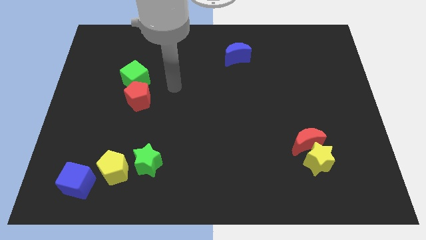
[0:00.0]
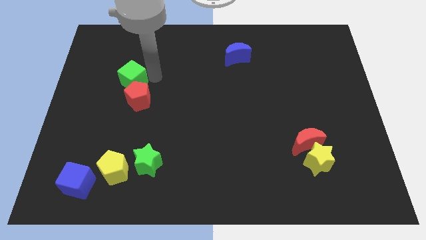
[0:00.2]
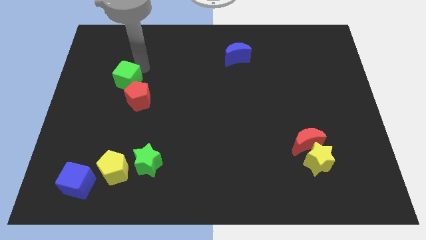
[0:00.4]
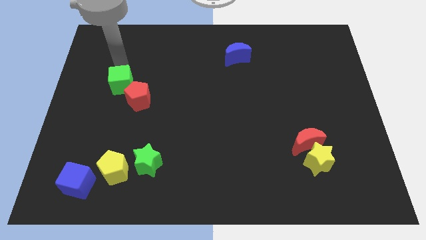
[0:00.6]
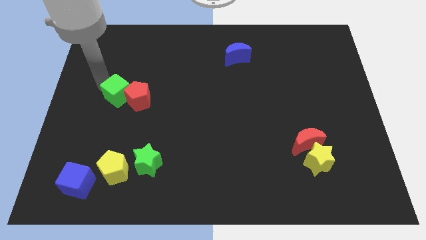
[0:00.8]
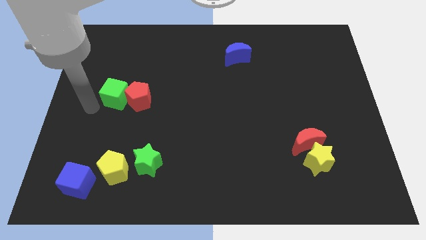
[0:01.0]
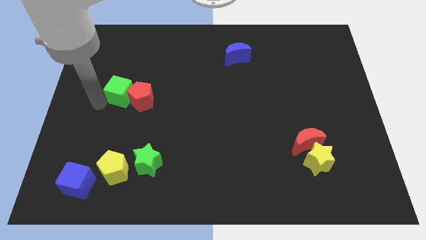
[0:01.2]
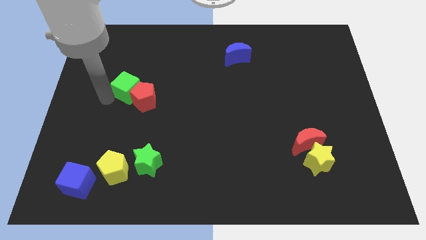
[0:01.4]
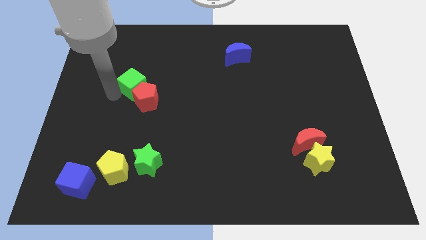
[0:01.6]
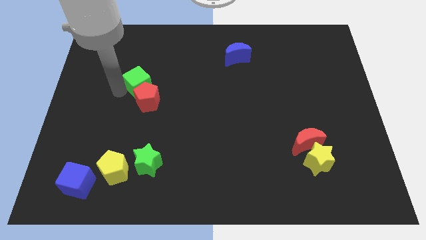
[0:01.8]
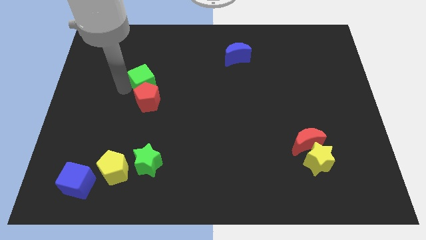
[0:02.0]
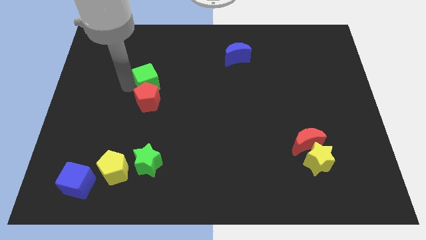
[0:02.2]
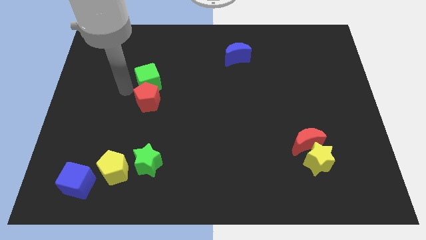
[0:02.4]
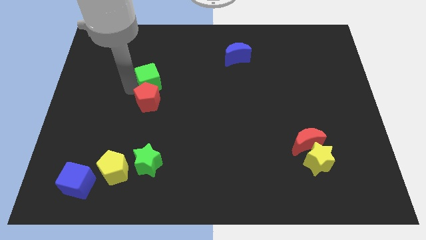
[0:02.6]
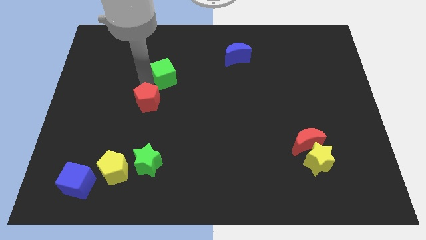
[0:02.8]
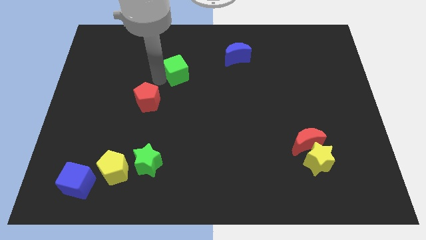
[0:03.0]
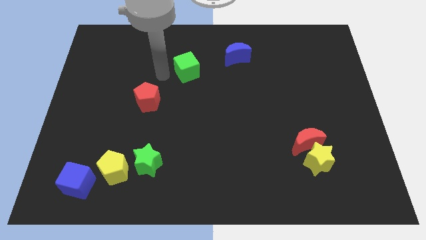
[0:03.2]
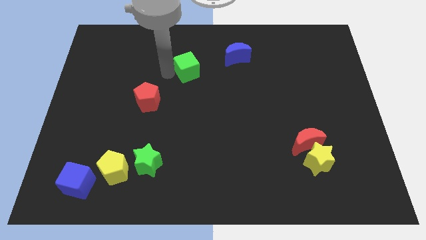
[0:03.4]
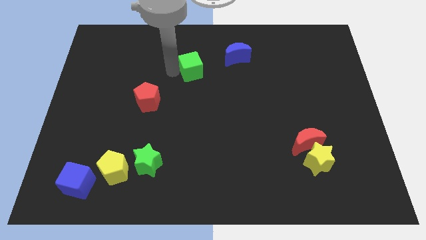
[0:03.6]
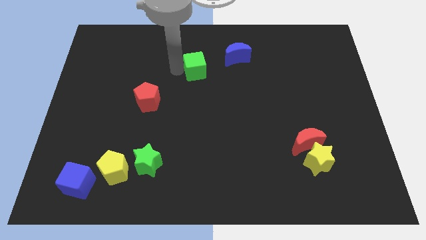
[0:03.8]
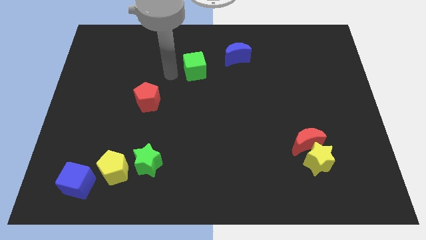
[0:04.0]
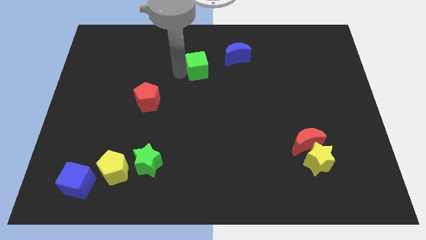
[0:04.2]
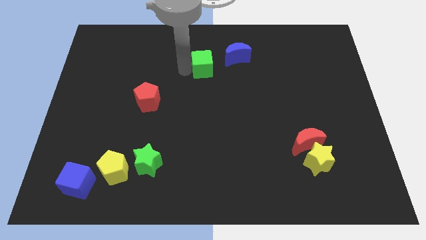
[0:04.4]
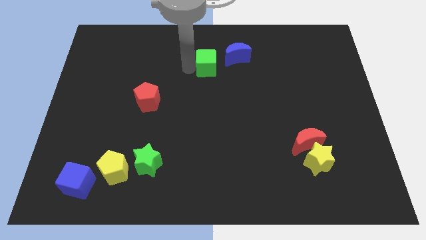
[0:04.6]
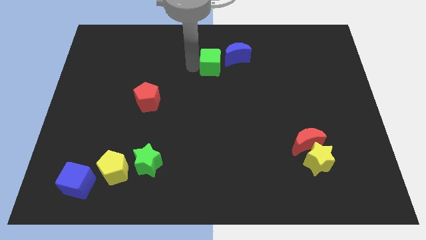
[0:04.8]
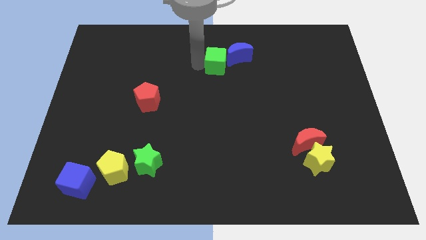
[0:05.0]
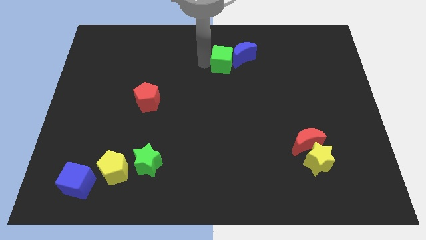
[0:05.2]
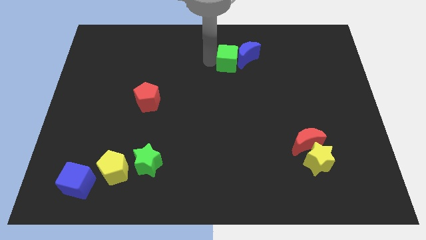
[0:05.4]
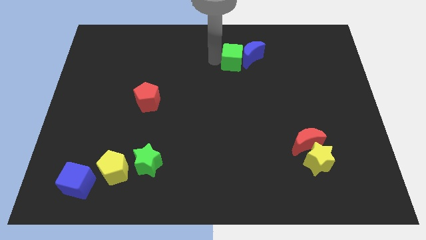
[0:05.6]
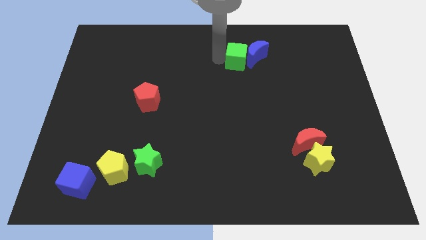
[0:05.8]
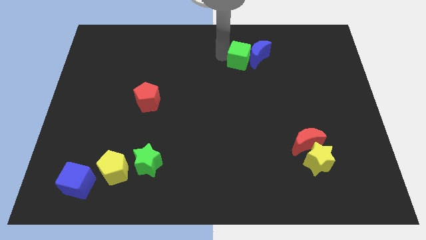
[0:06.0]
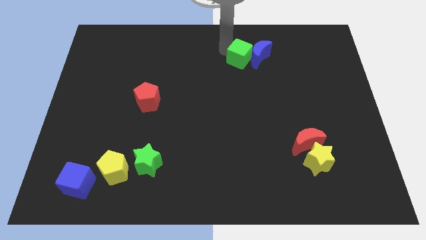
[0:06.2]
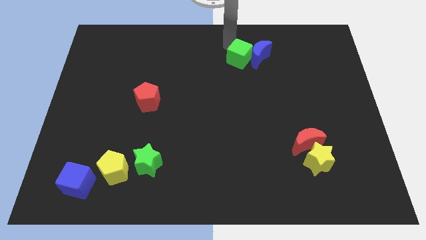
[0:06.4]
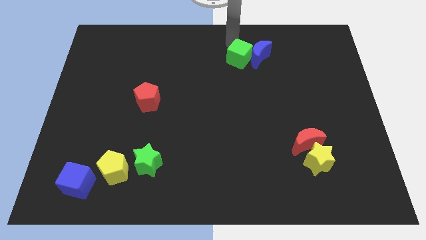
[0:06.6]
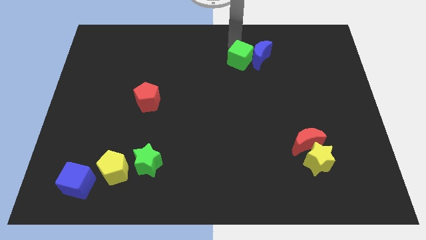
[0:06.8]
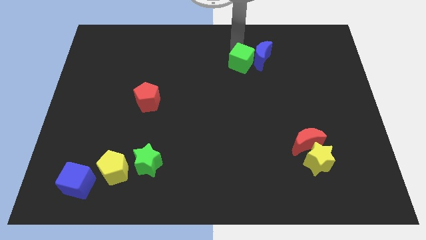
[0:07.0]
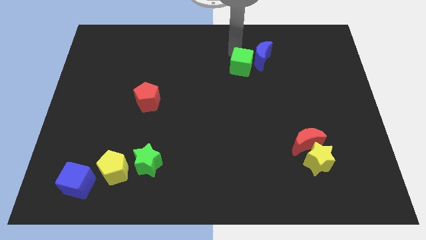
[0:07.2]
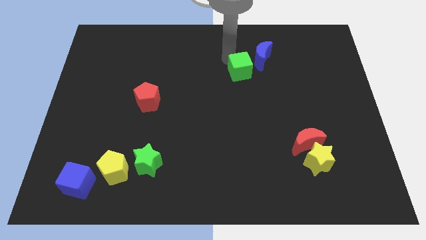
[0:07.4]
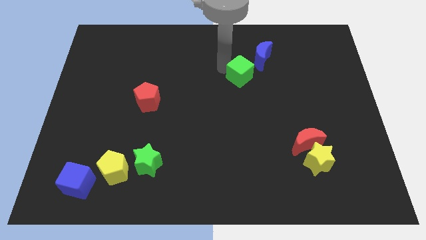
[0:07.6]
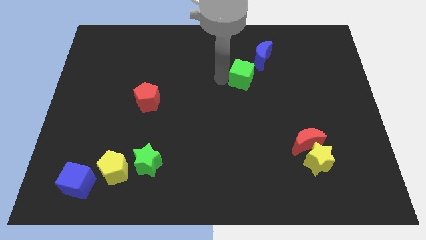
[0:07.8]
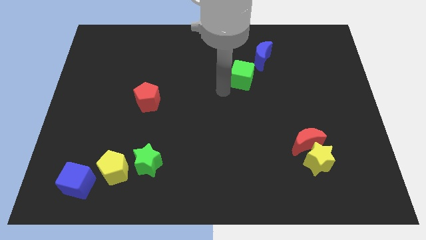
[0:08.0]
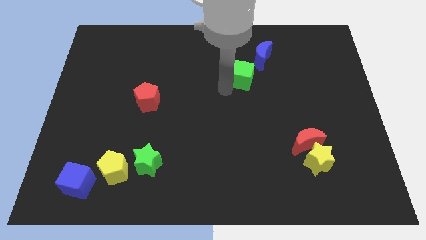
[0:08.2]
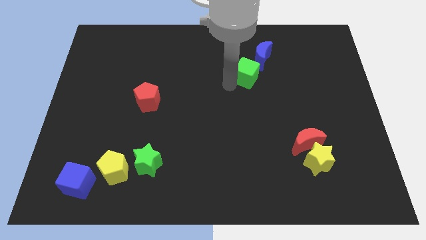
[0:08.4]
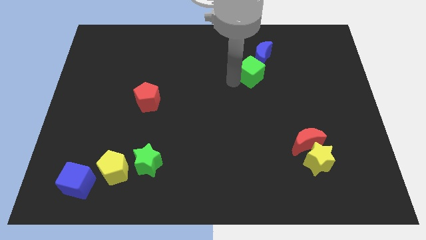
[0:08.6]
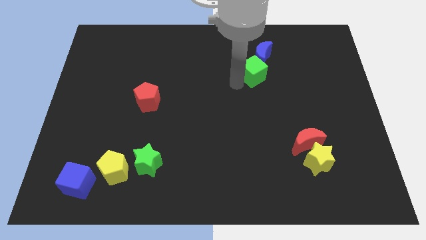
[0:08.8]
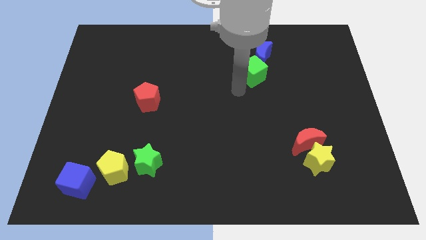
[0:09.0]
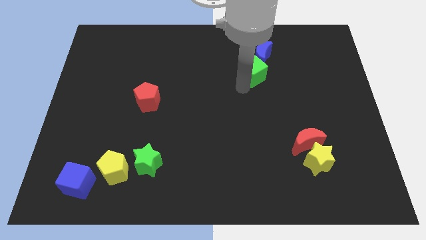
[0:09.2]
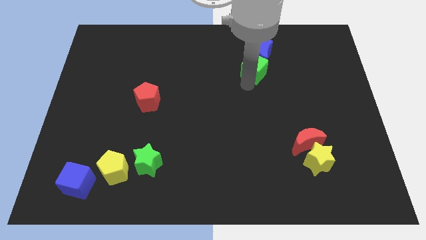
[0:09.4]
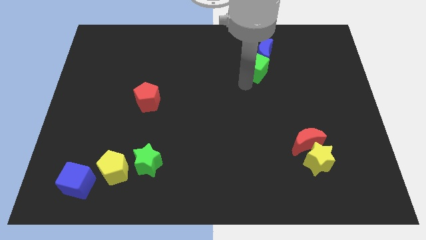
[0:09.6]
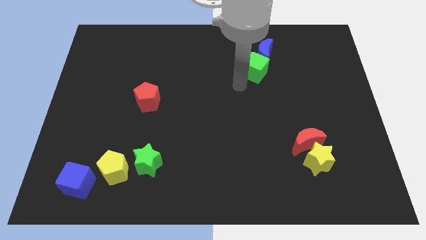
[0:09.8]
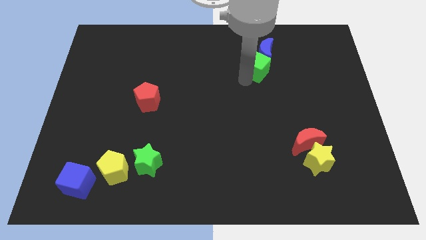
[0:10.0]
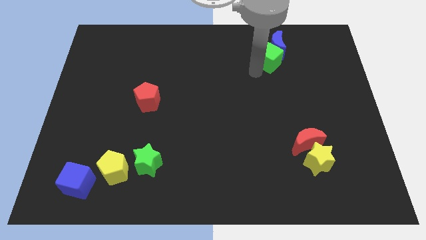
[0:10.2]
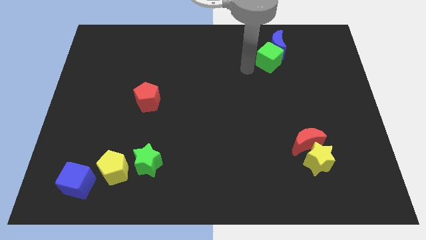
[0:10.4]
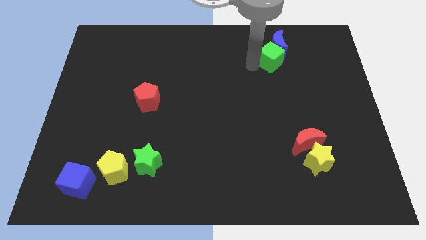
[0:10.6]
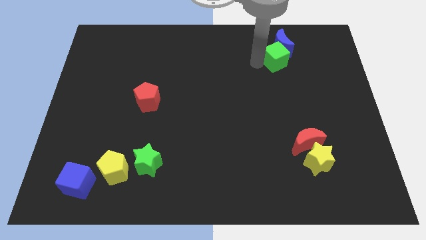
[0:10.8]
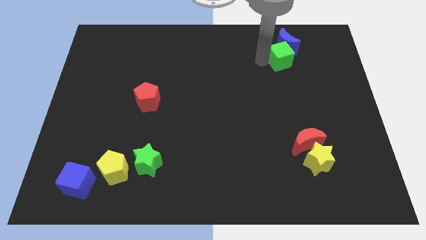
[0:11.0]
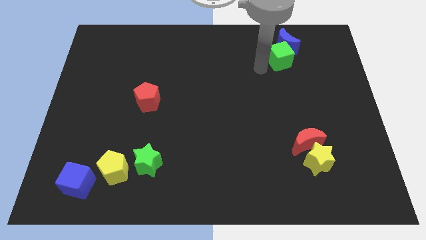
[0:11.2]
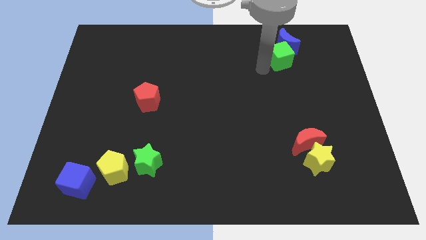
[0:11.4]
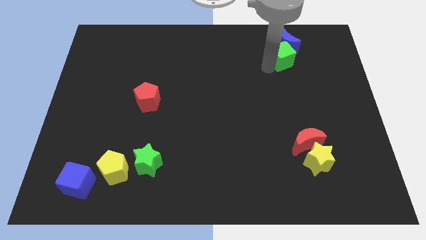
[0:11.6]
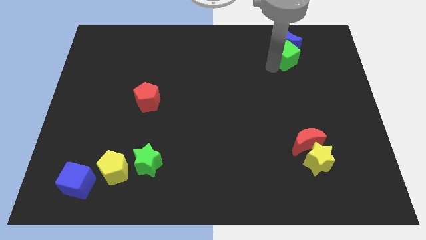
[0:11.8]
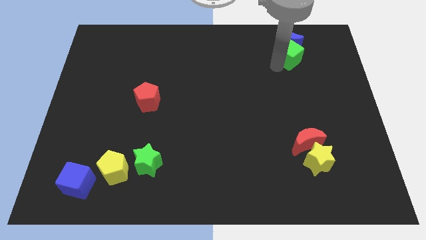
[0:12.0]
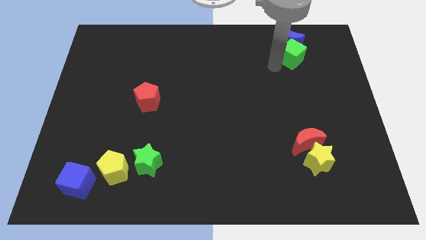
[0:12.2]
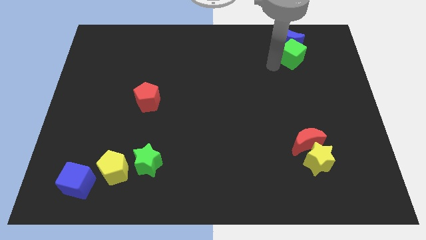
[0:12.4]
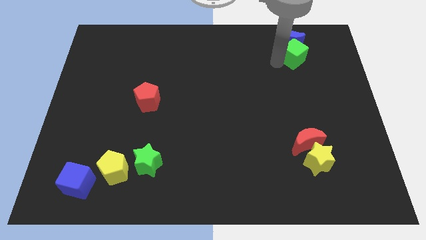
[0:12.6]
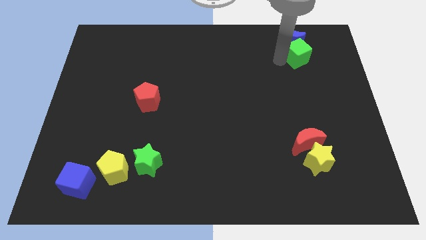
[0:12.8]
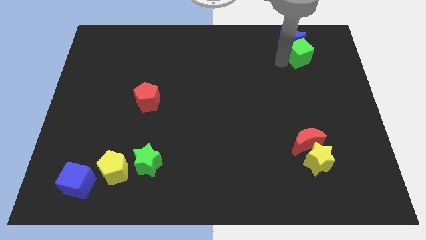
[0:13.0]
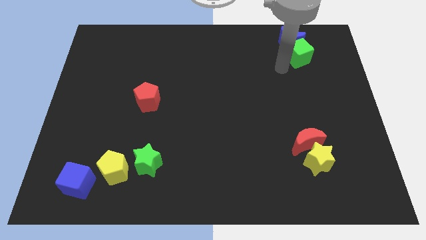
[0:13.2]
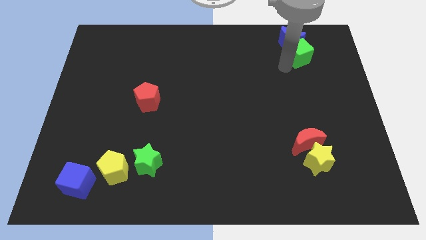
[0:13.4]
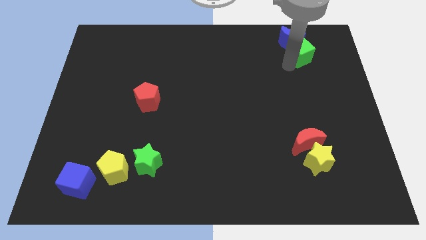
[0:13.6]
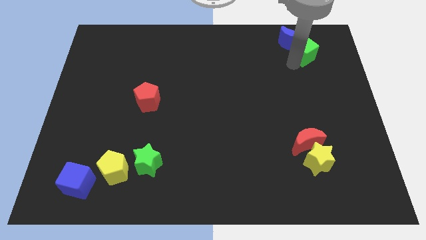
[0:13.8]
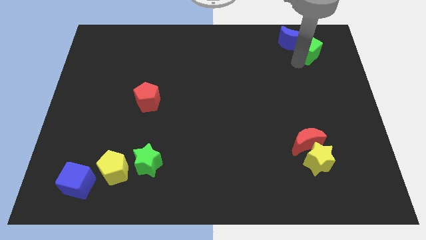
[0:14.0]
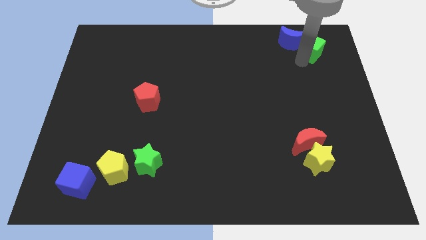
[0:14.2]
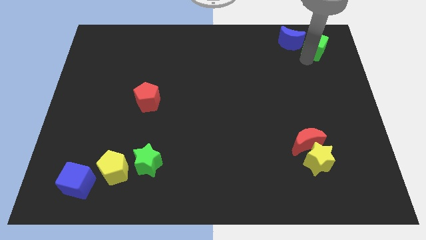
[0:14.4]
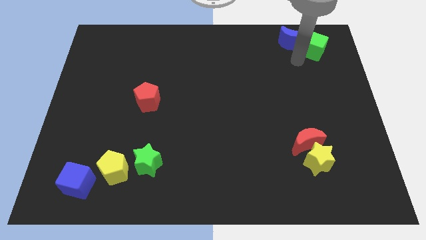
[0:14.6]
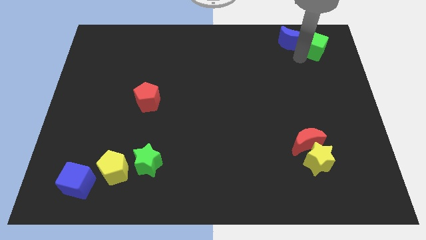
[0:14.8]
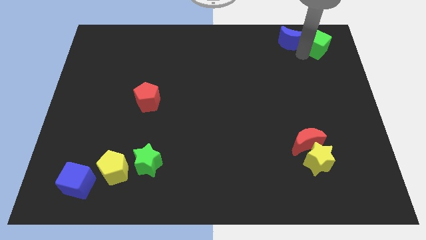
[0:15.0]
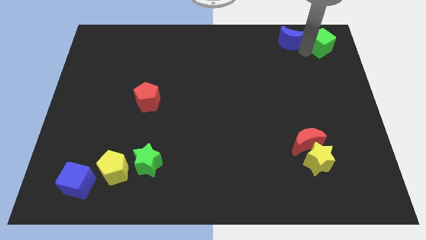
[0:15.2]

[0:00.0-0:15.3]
put the green cube to the top right of the board
